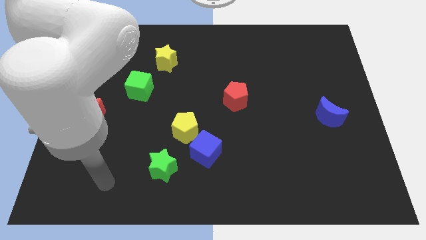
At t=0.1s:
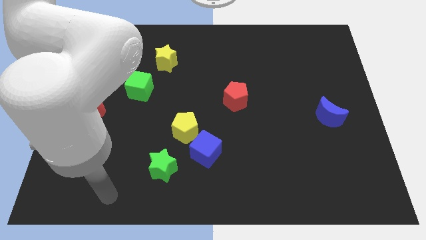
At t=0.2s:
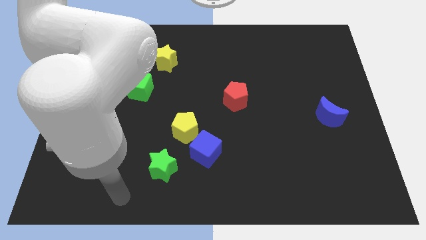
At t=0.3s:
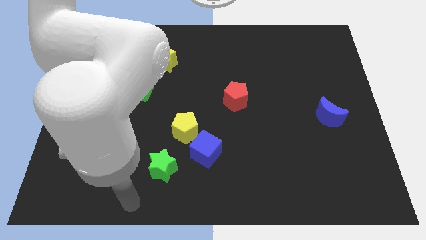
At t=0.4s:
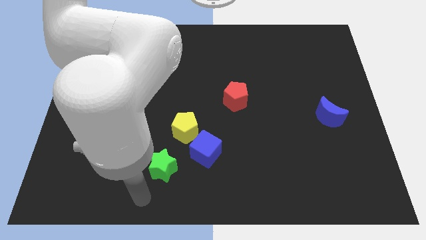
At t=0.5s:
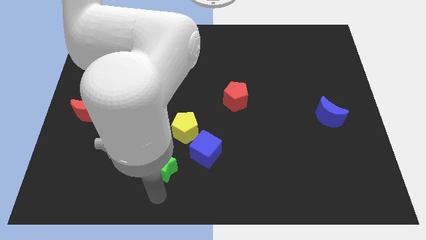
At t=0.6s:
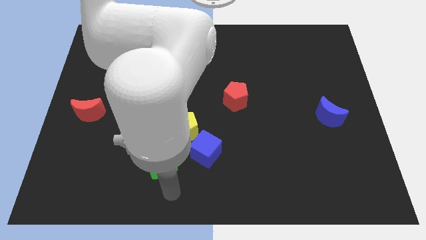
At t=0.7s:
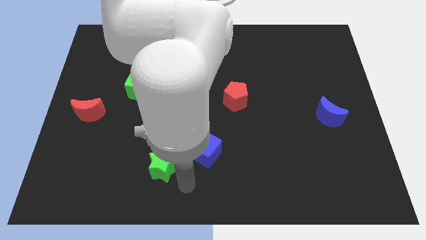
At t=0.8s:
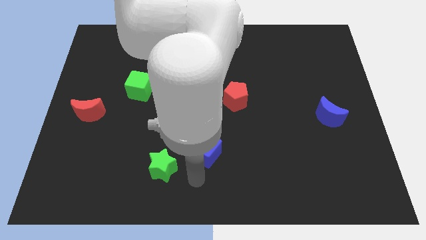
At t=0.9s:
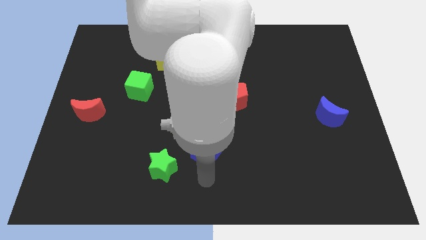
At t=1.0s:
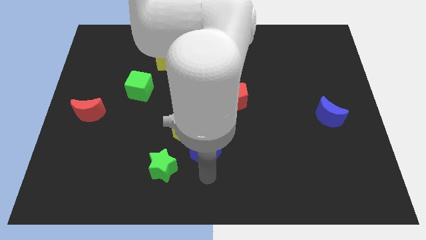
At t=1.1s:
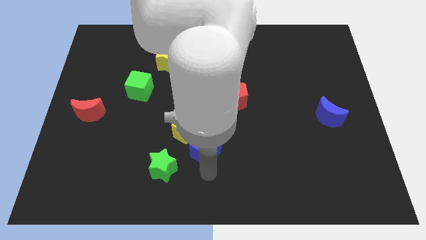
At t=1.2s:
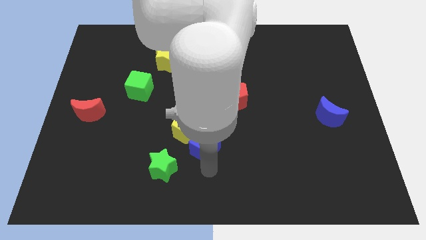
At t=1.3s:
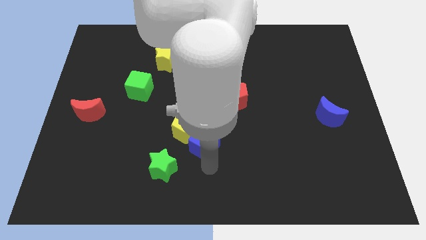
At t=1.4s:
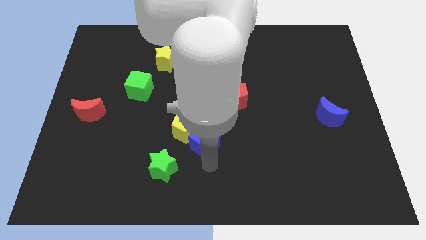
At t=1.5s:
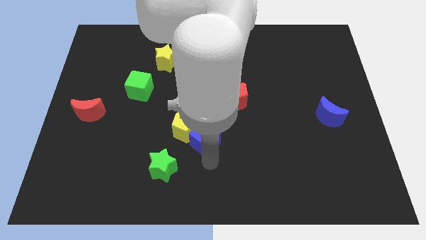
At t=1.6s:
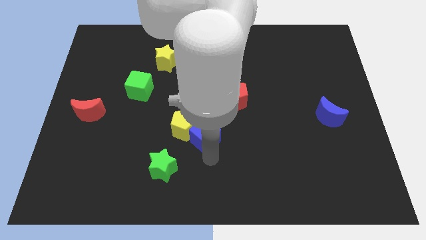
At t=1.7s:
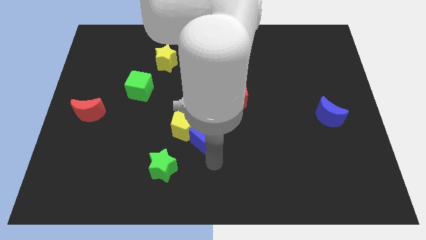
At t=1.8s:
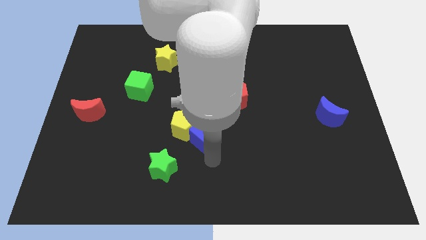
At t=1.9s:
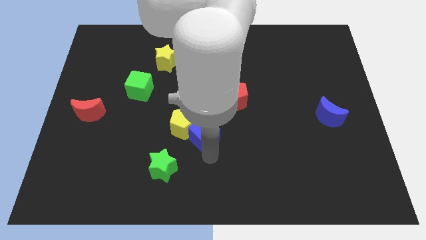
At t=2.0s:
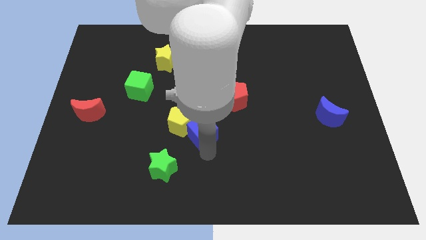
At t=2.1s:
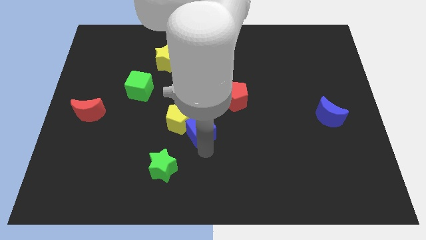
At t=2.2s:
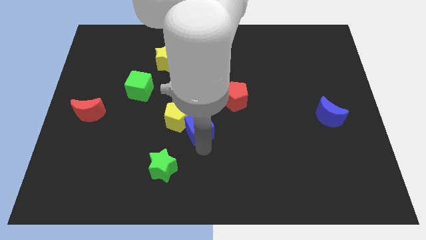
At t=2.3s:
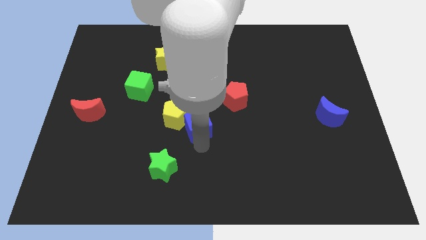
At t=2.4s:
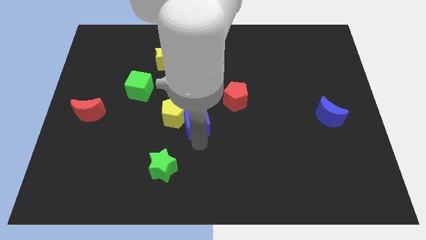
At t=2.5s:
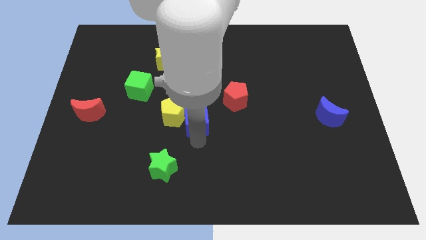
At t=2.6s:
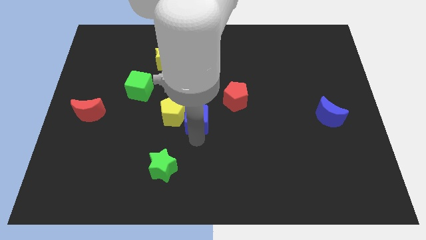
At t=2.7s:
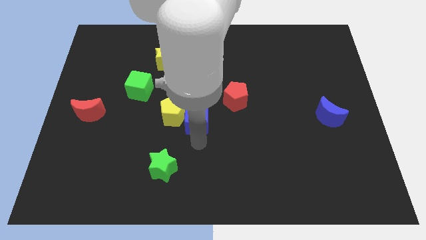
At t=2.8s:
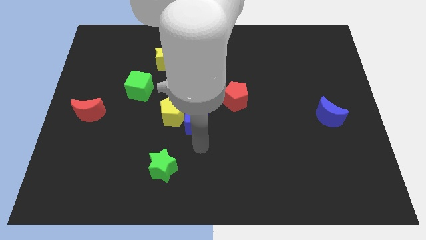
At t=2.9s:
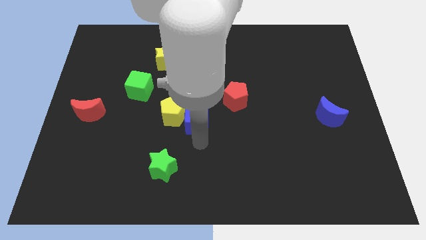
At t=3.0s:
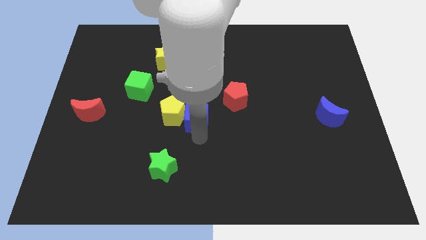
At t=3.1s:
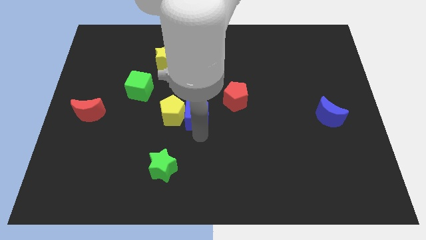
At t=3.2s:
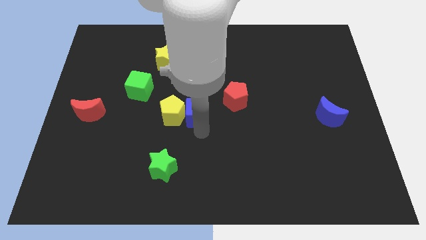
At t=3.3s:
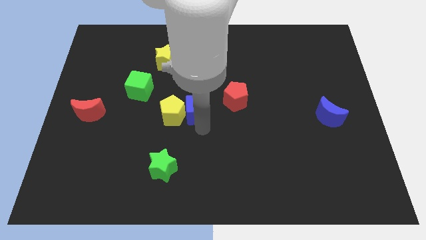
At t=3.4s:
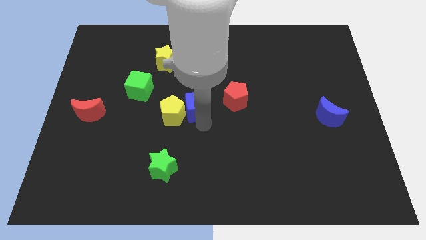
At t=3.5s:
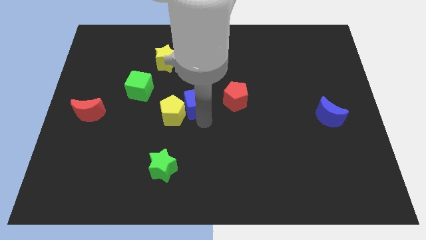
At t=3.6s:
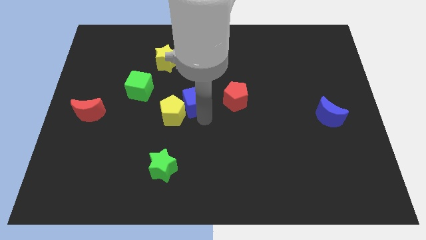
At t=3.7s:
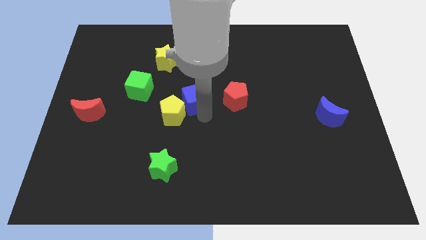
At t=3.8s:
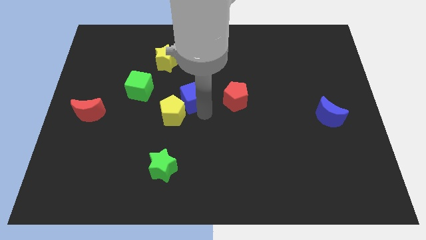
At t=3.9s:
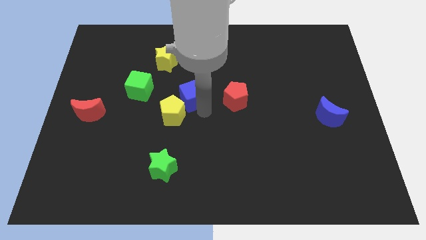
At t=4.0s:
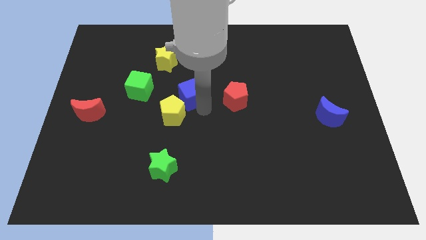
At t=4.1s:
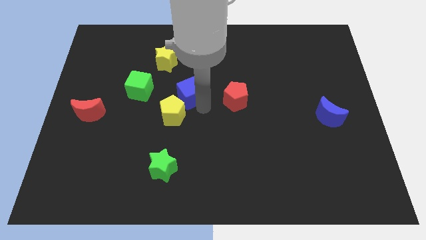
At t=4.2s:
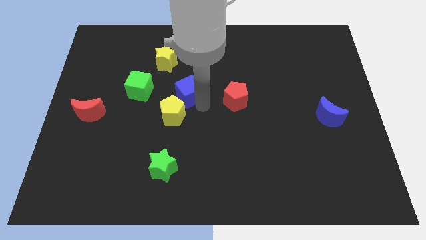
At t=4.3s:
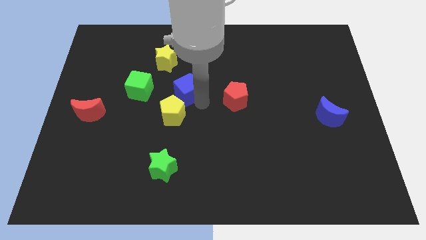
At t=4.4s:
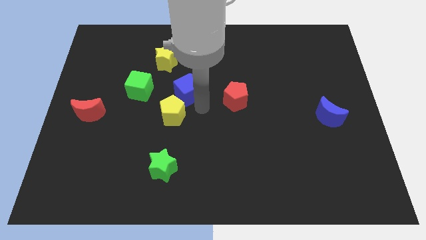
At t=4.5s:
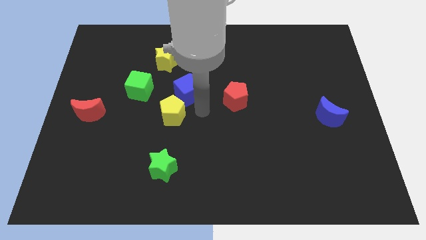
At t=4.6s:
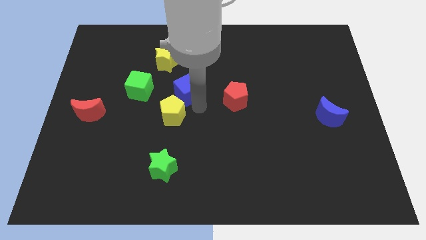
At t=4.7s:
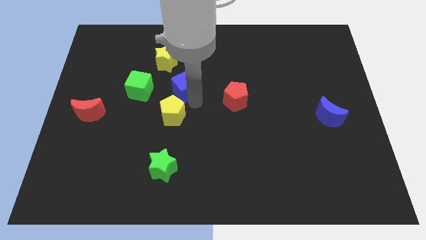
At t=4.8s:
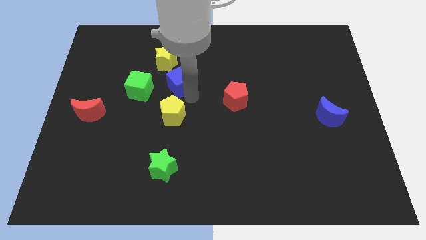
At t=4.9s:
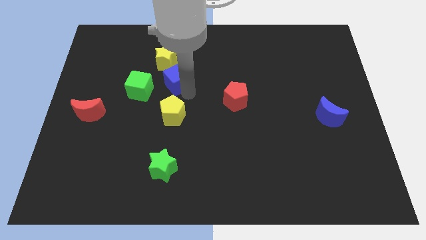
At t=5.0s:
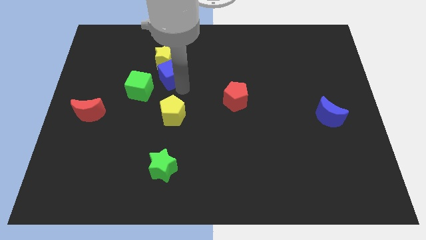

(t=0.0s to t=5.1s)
push the blue cube towards the yellow star

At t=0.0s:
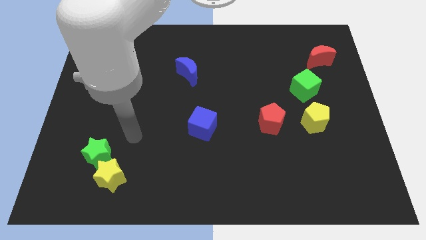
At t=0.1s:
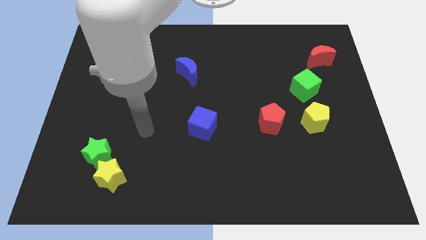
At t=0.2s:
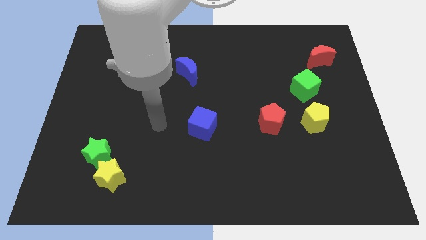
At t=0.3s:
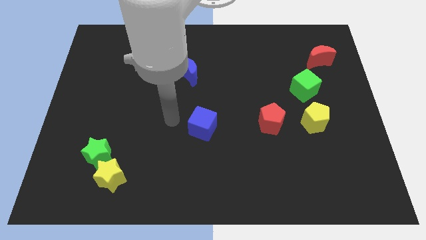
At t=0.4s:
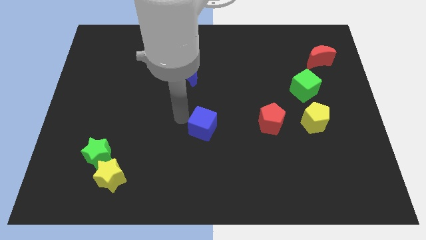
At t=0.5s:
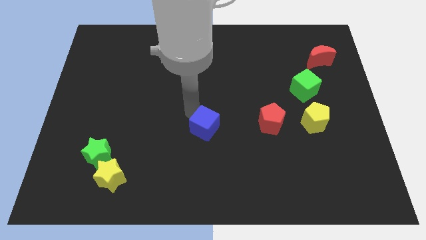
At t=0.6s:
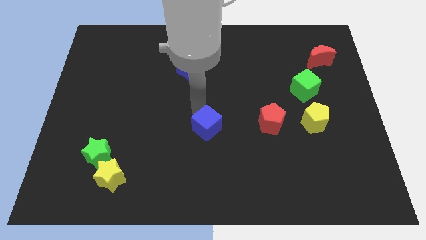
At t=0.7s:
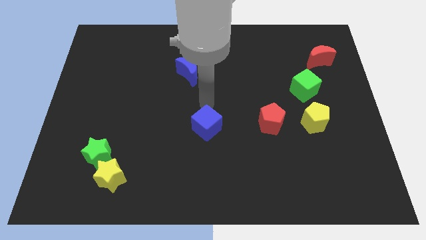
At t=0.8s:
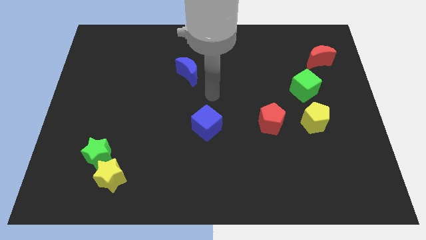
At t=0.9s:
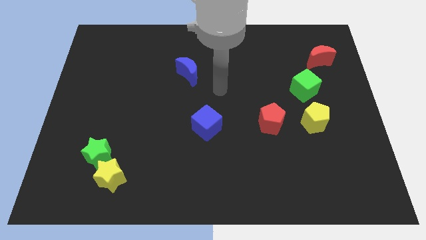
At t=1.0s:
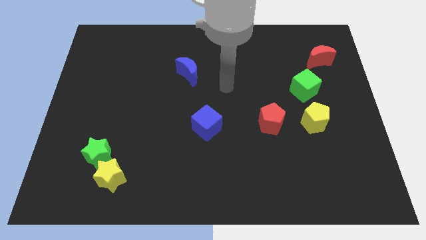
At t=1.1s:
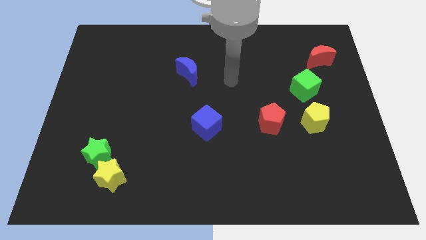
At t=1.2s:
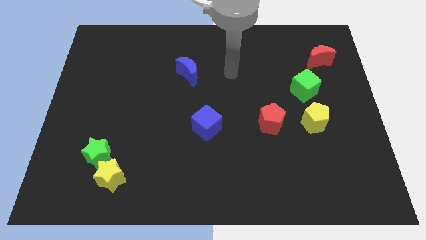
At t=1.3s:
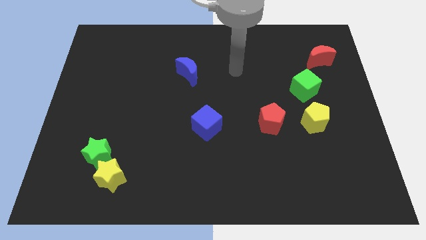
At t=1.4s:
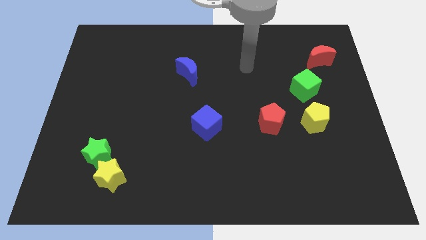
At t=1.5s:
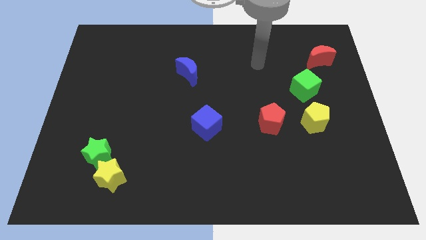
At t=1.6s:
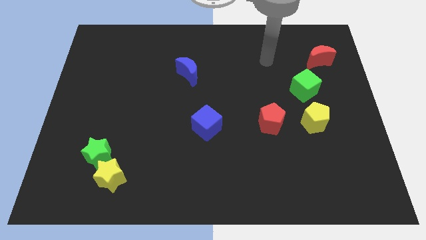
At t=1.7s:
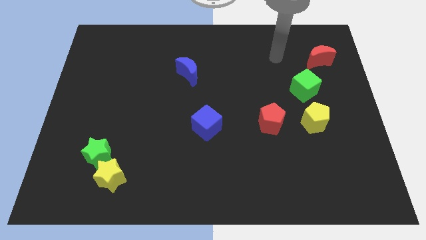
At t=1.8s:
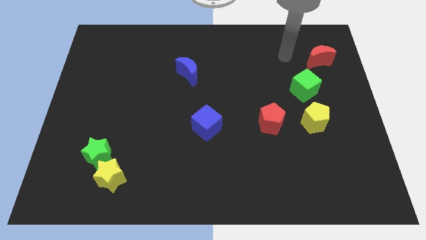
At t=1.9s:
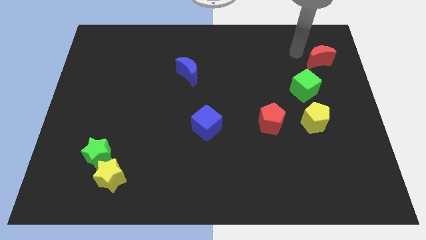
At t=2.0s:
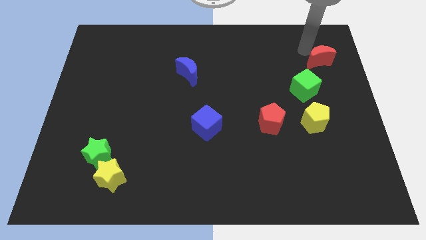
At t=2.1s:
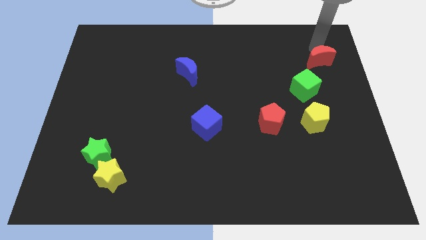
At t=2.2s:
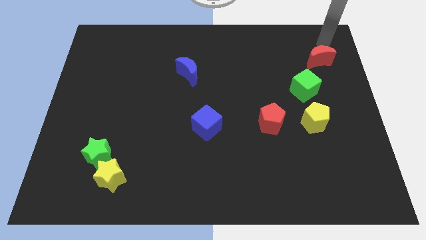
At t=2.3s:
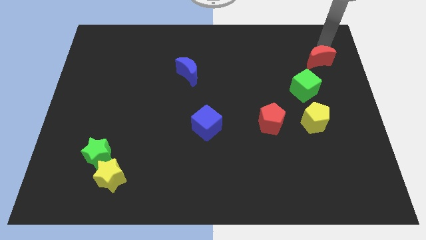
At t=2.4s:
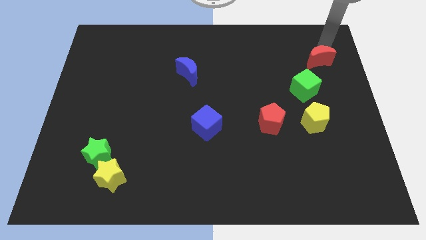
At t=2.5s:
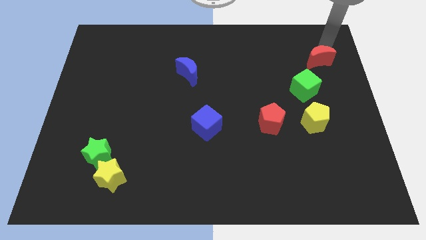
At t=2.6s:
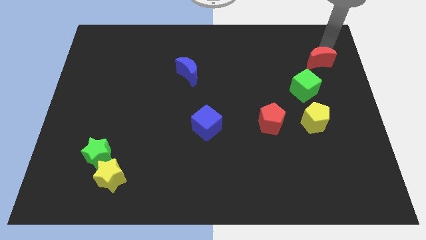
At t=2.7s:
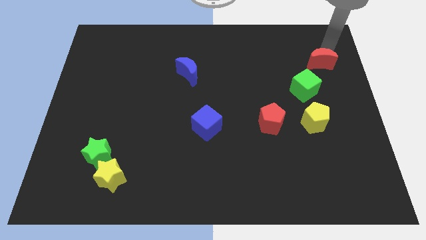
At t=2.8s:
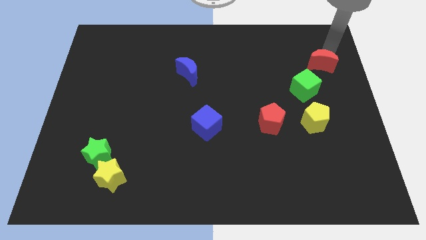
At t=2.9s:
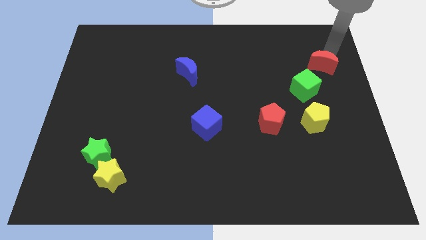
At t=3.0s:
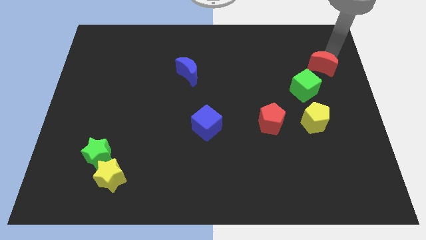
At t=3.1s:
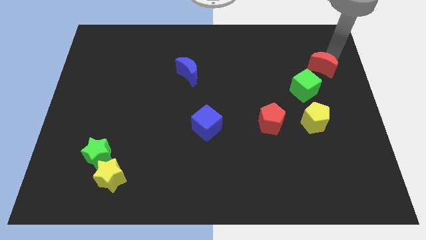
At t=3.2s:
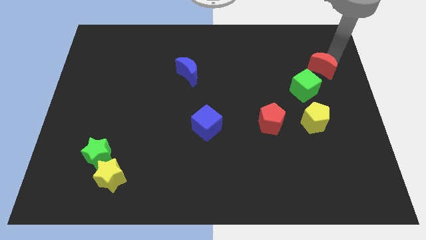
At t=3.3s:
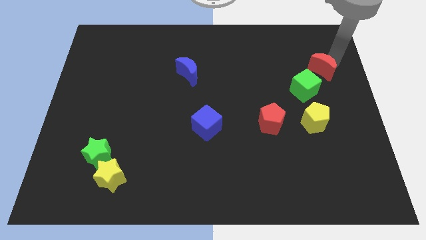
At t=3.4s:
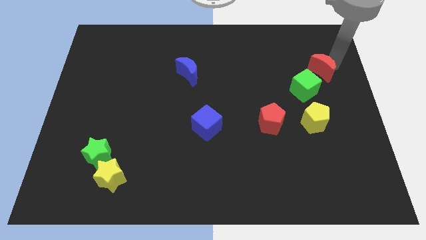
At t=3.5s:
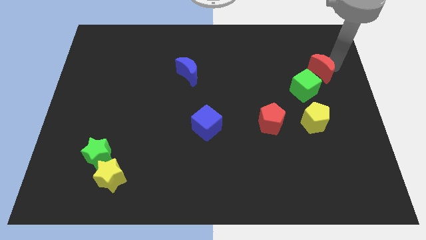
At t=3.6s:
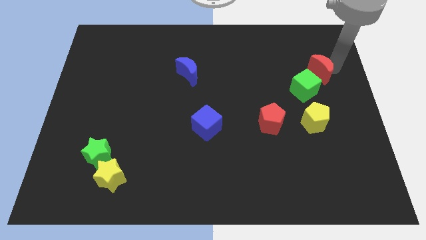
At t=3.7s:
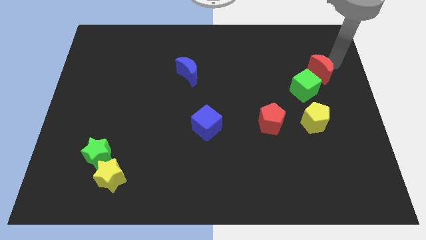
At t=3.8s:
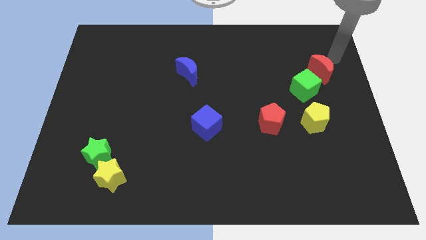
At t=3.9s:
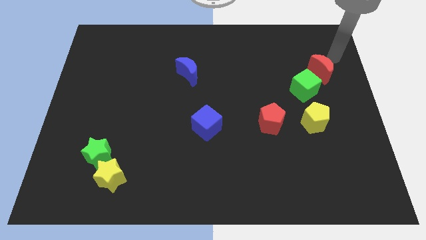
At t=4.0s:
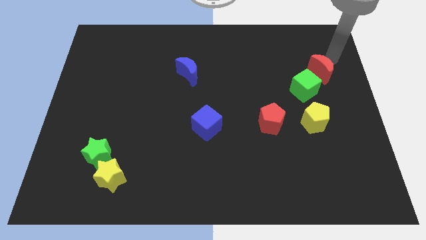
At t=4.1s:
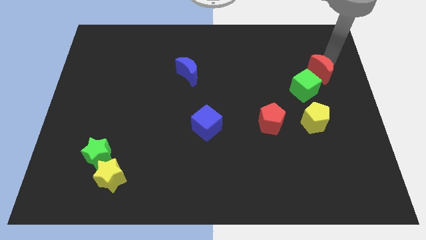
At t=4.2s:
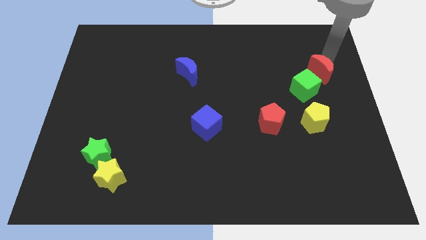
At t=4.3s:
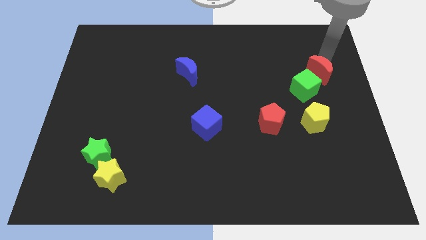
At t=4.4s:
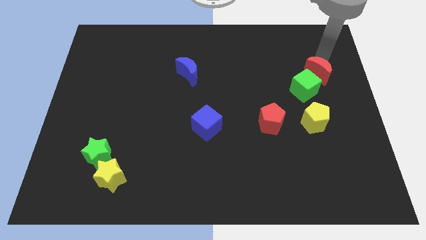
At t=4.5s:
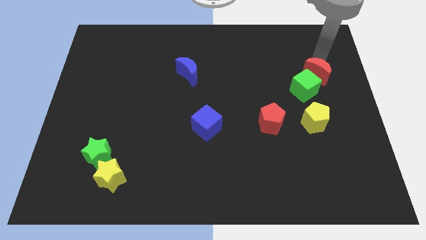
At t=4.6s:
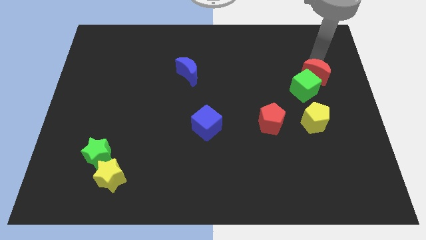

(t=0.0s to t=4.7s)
put the red moon close to the green cube
